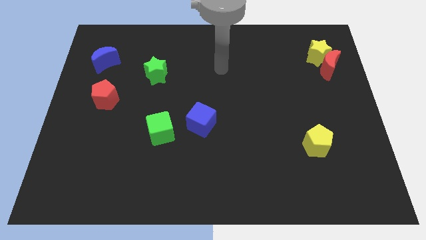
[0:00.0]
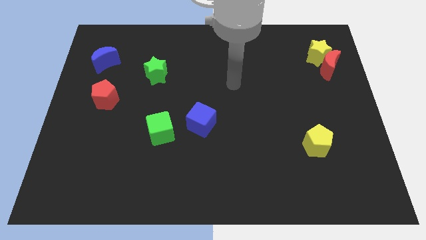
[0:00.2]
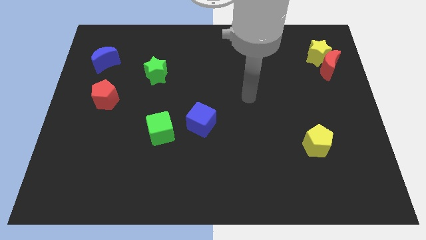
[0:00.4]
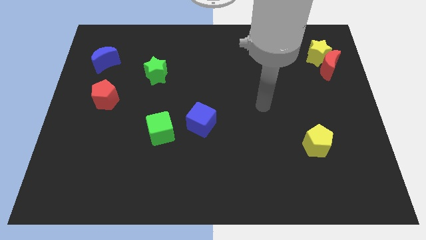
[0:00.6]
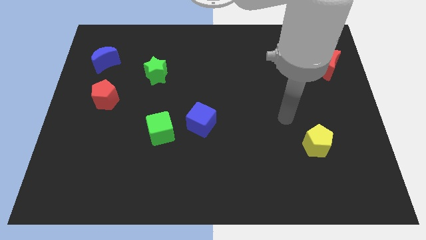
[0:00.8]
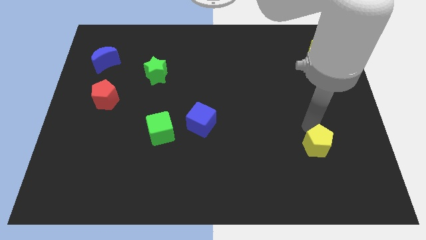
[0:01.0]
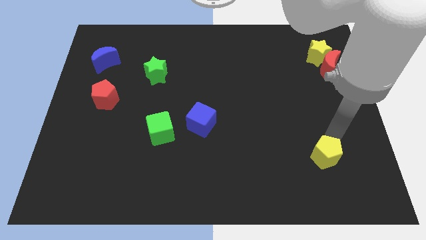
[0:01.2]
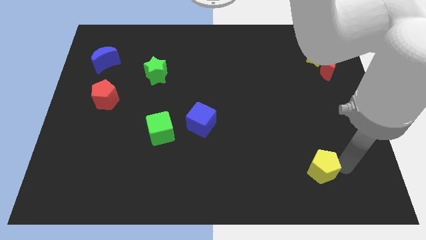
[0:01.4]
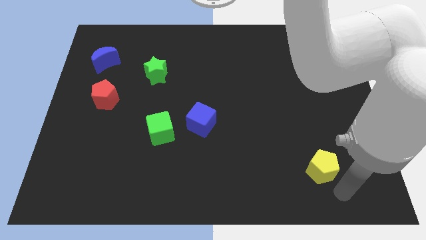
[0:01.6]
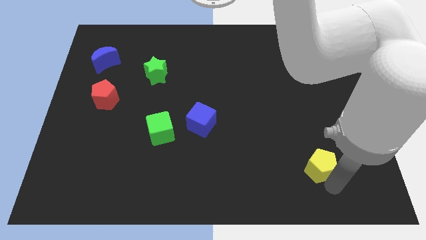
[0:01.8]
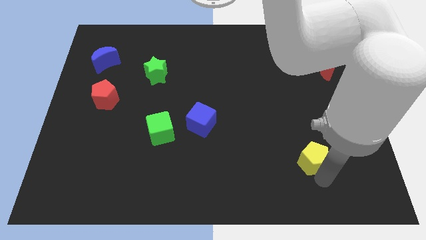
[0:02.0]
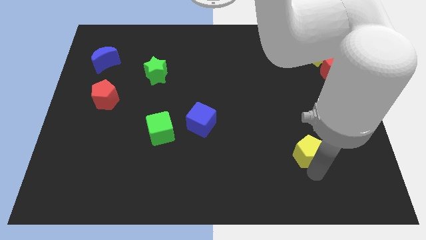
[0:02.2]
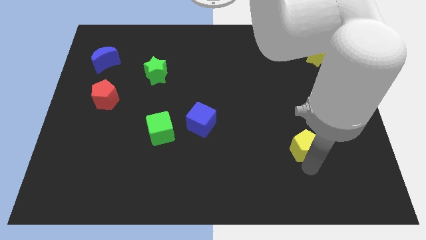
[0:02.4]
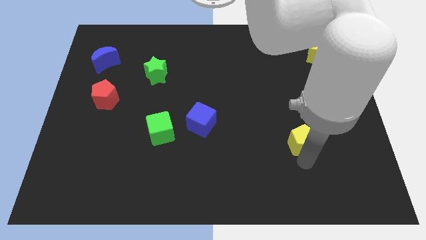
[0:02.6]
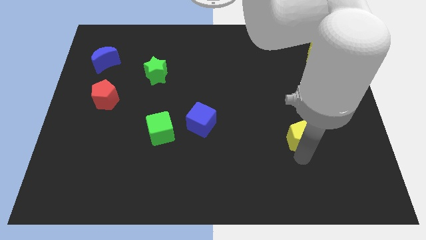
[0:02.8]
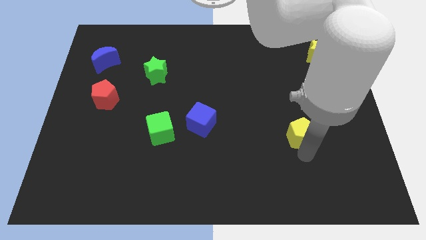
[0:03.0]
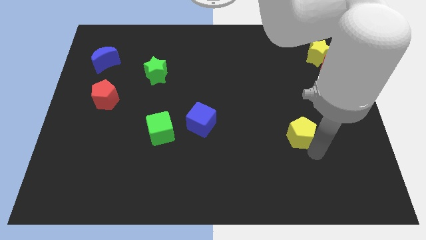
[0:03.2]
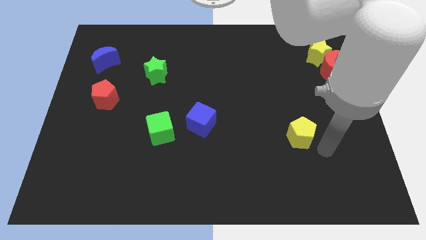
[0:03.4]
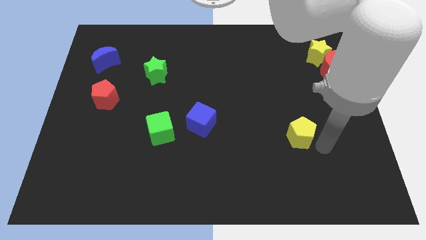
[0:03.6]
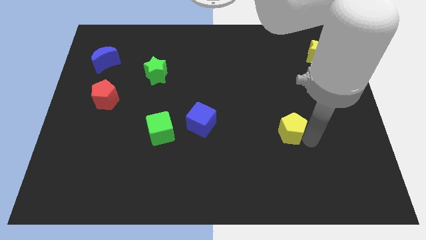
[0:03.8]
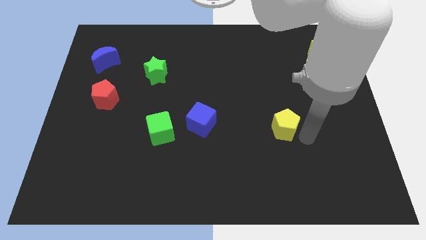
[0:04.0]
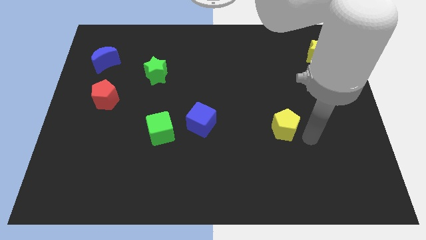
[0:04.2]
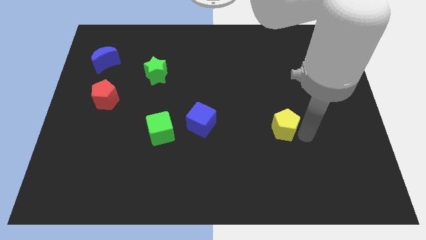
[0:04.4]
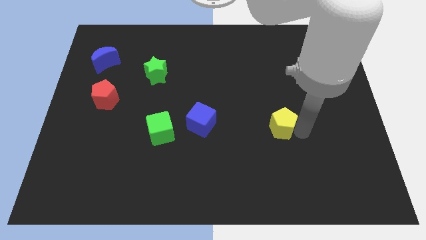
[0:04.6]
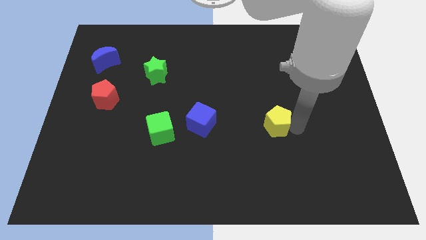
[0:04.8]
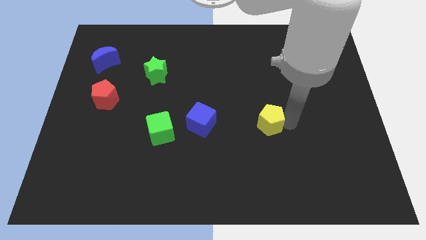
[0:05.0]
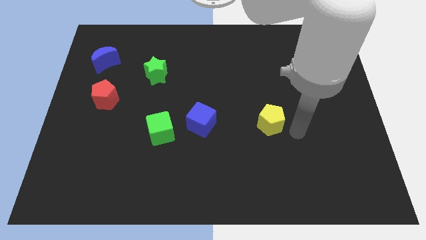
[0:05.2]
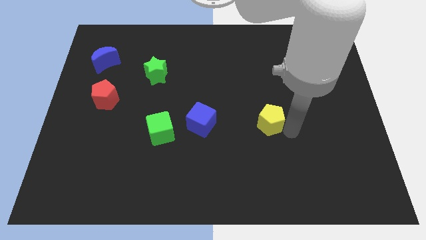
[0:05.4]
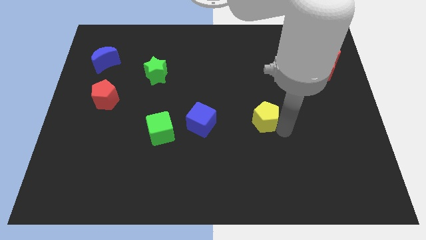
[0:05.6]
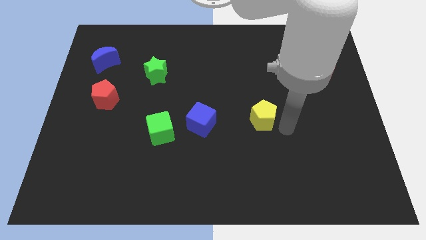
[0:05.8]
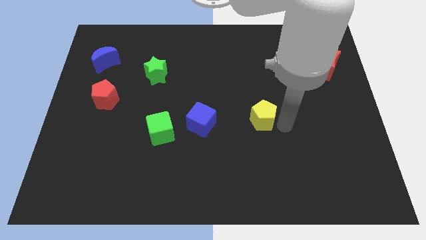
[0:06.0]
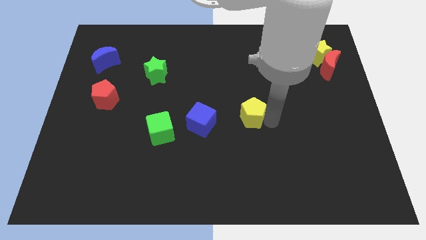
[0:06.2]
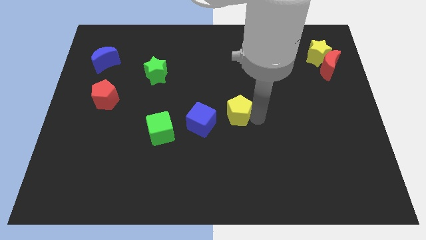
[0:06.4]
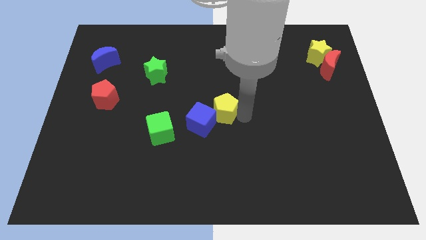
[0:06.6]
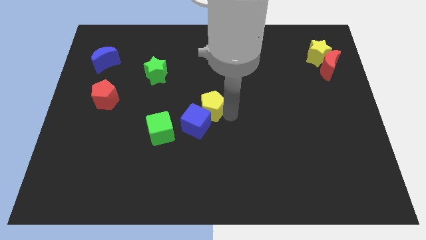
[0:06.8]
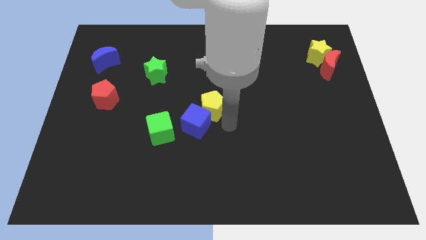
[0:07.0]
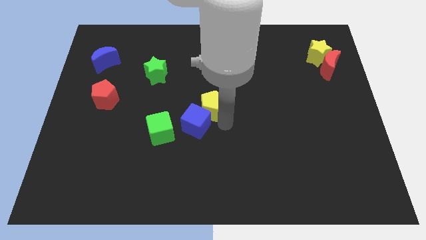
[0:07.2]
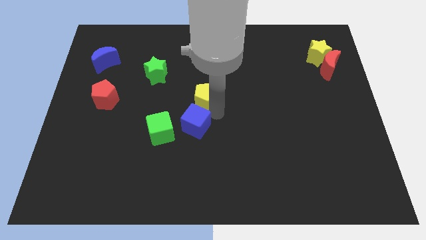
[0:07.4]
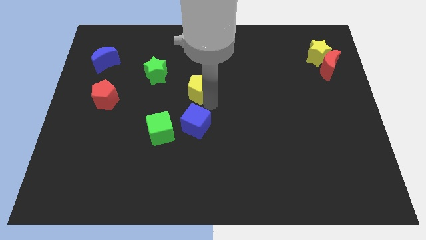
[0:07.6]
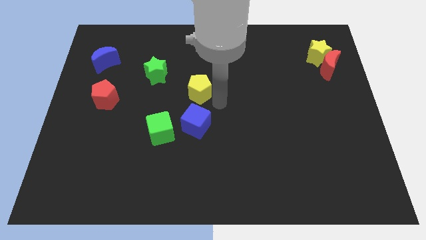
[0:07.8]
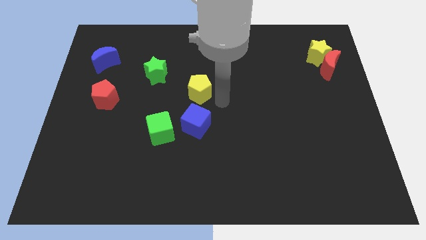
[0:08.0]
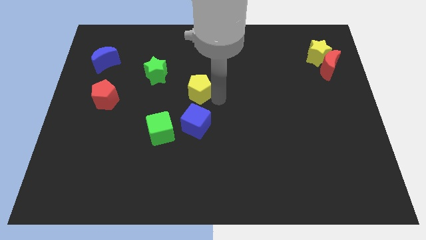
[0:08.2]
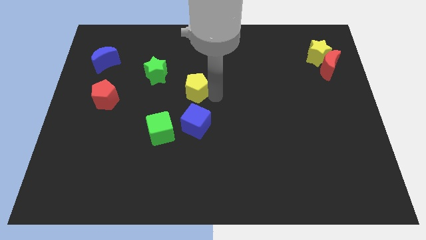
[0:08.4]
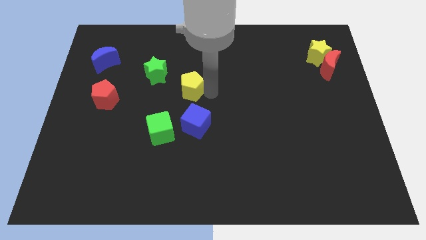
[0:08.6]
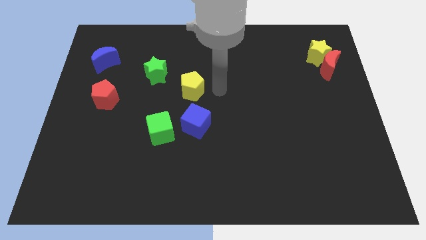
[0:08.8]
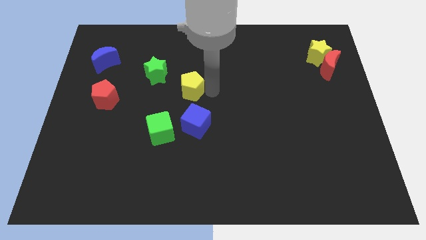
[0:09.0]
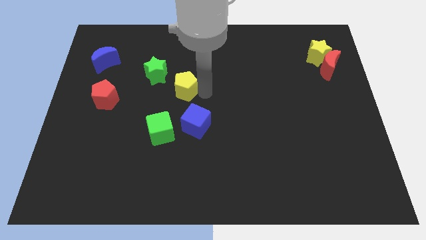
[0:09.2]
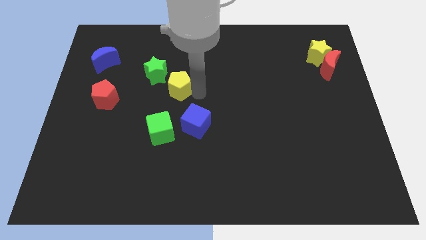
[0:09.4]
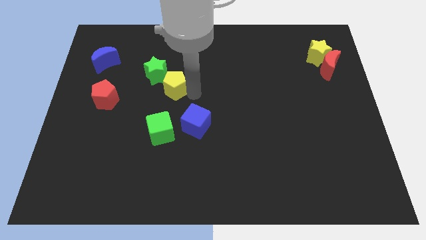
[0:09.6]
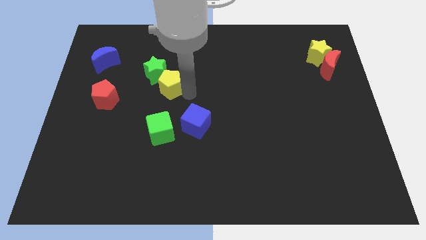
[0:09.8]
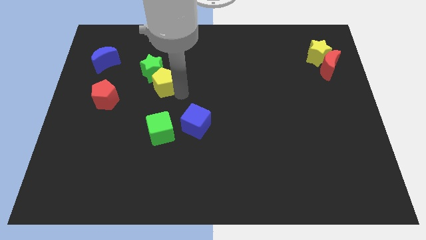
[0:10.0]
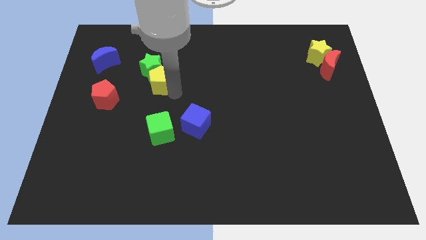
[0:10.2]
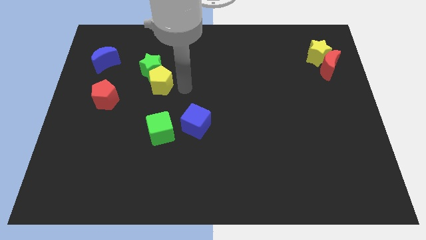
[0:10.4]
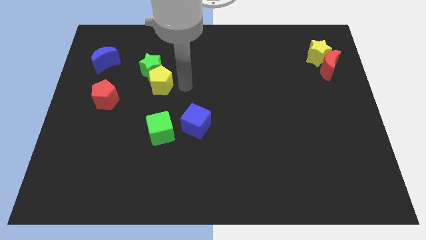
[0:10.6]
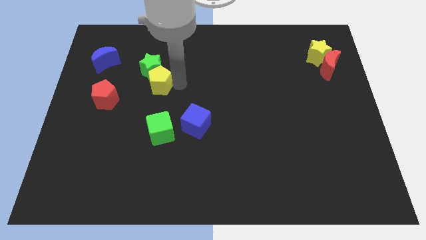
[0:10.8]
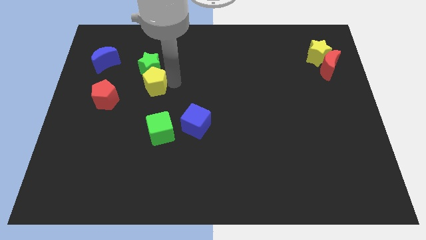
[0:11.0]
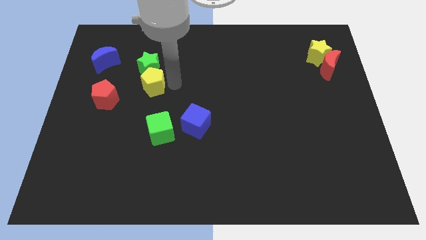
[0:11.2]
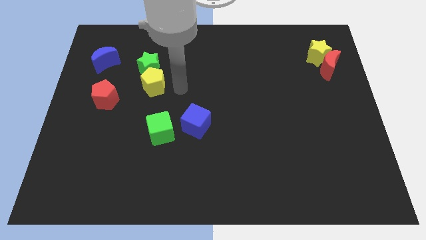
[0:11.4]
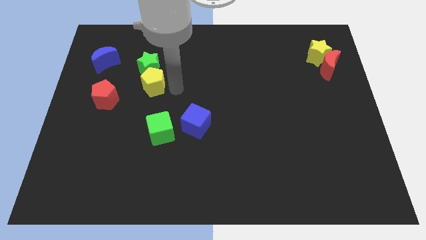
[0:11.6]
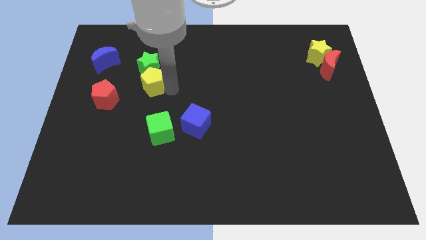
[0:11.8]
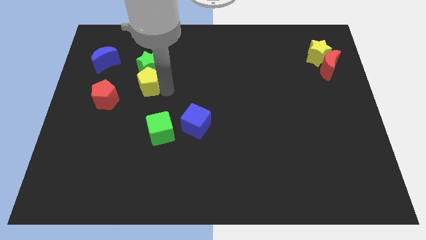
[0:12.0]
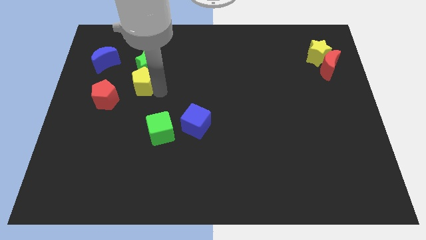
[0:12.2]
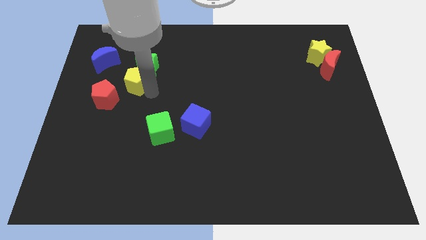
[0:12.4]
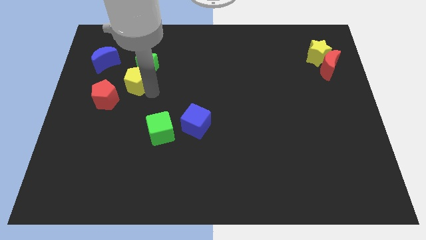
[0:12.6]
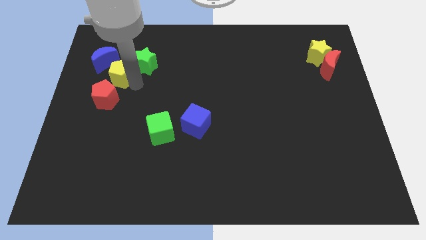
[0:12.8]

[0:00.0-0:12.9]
slide the yellow pentagon to the left of the green star
